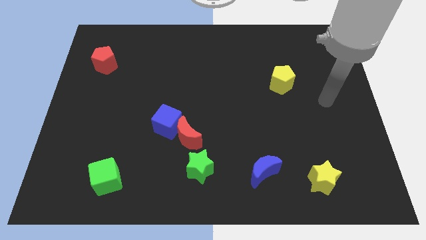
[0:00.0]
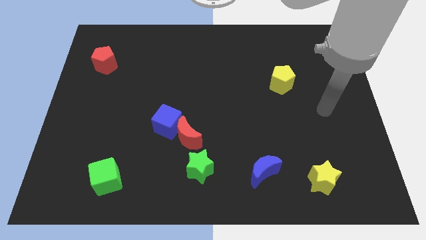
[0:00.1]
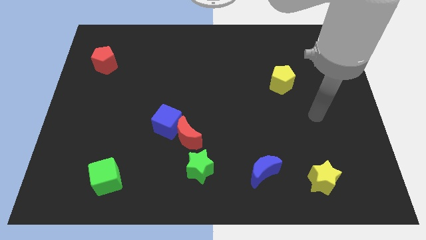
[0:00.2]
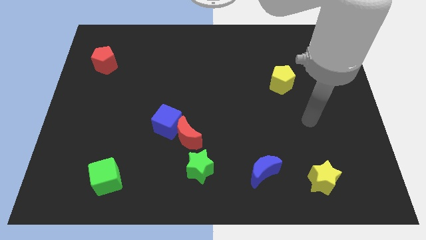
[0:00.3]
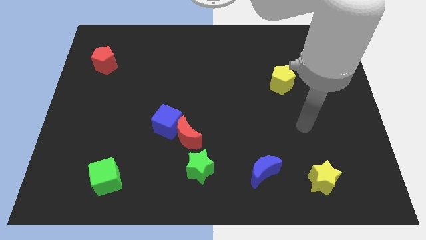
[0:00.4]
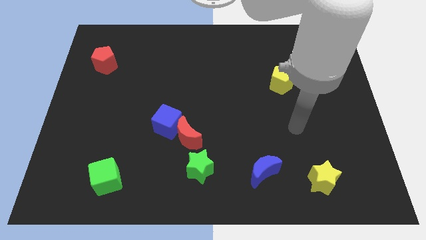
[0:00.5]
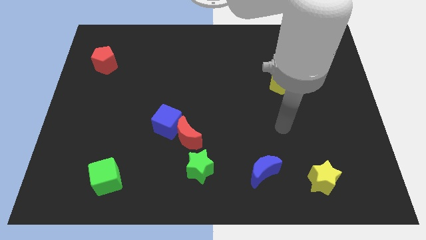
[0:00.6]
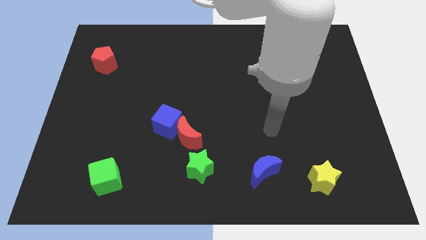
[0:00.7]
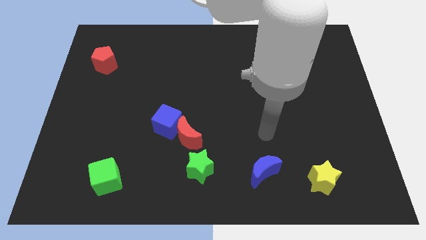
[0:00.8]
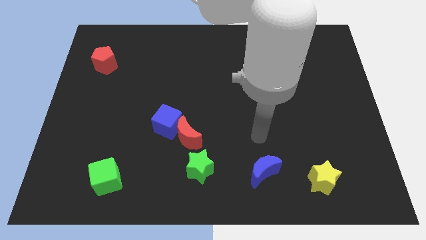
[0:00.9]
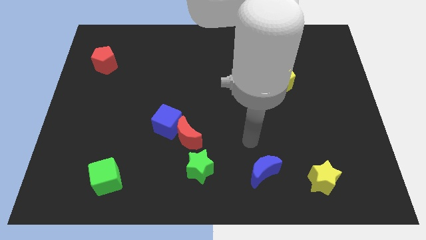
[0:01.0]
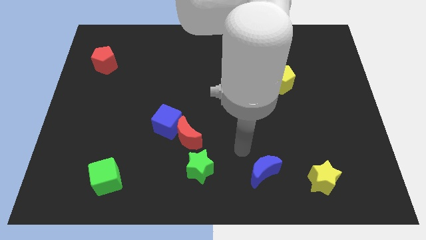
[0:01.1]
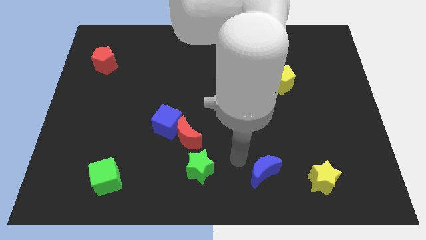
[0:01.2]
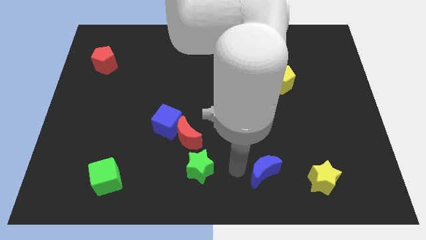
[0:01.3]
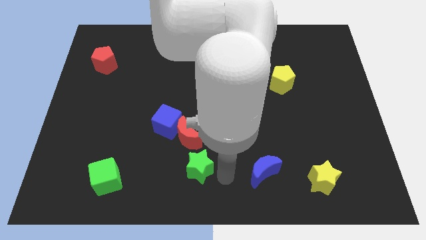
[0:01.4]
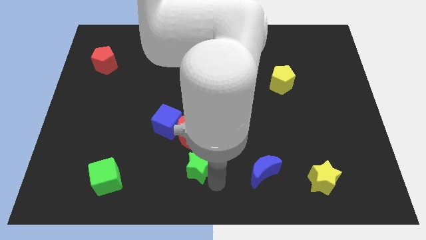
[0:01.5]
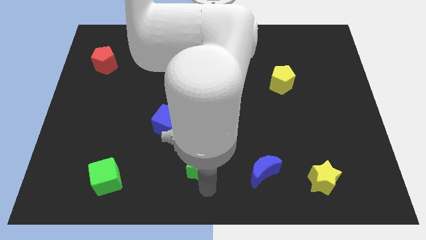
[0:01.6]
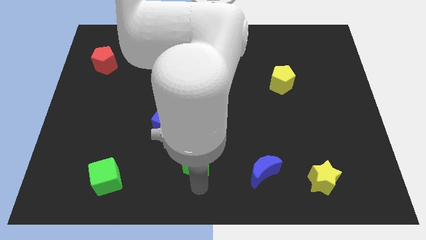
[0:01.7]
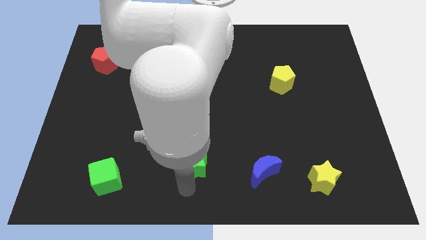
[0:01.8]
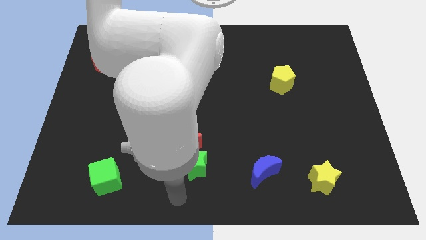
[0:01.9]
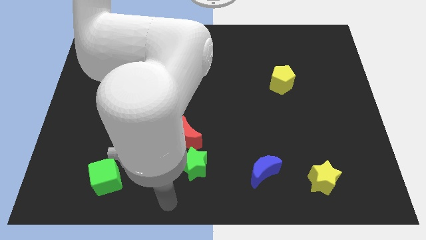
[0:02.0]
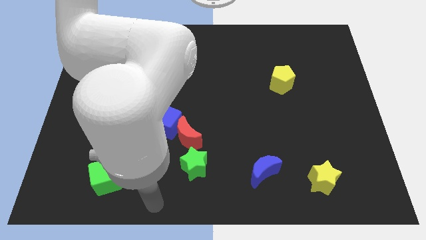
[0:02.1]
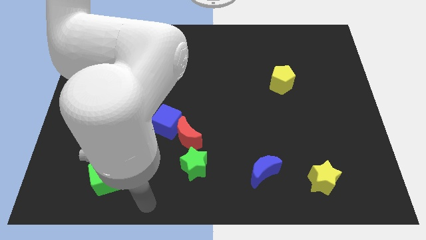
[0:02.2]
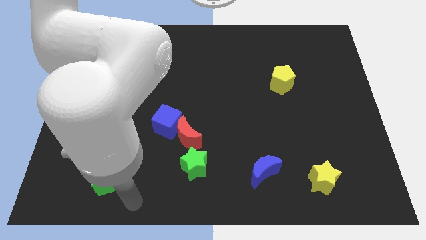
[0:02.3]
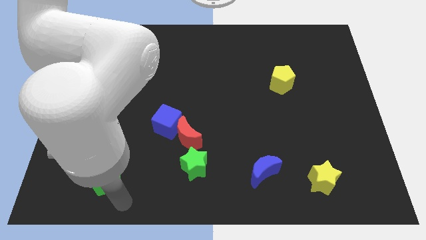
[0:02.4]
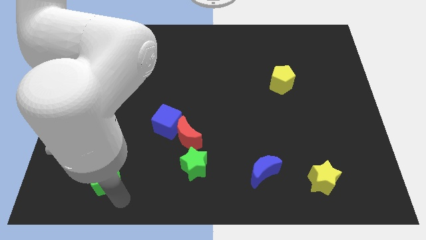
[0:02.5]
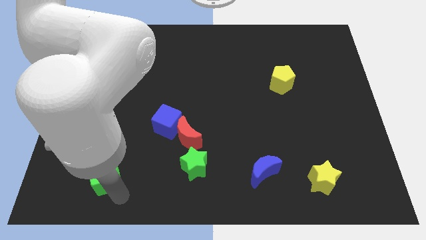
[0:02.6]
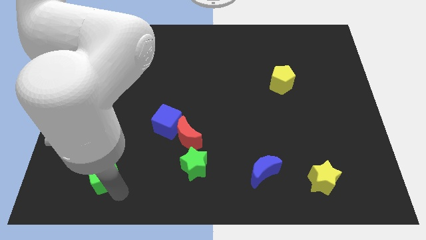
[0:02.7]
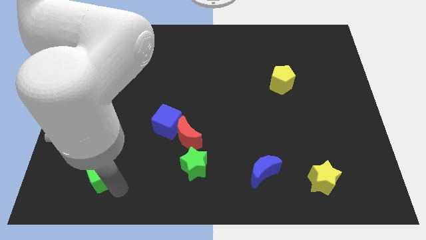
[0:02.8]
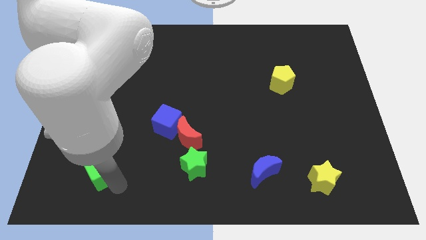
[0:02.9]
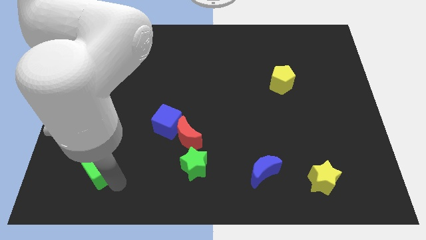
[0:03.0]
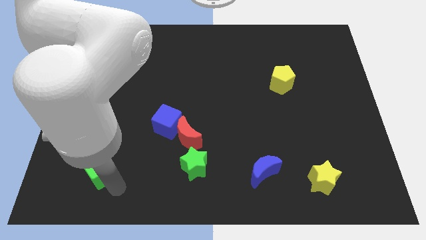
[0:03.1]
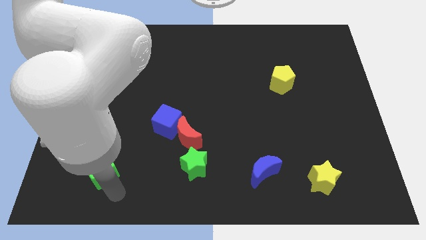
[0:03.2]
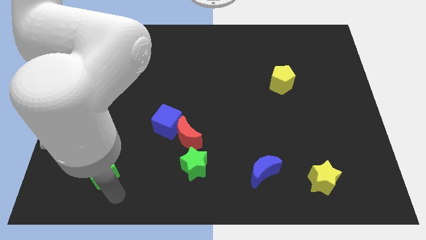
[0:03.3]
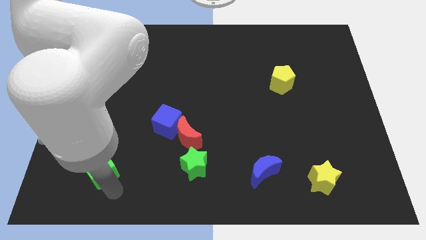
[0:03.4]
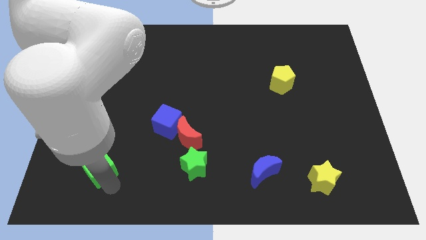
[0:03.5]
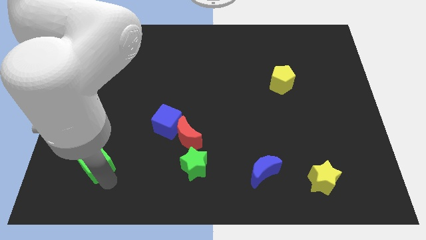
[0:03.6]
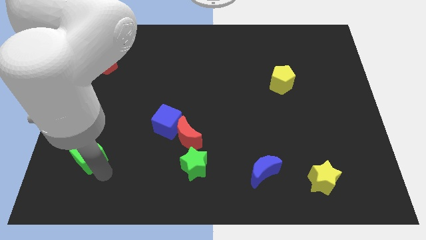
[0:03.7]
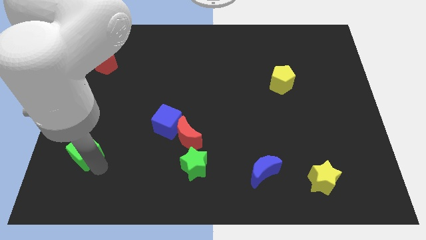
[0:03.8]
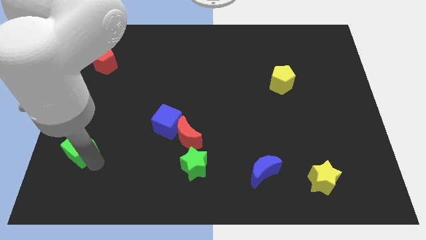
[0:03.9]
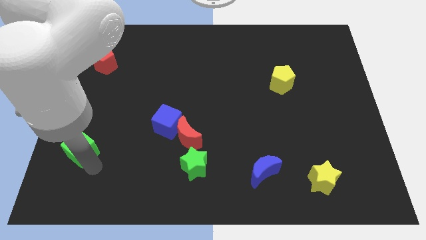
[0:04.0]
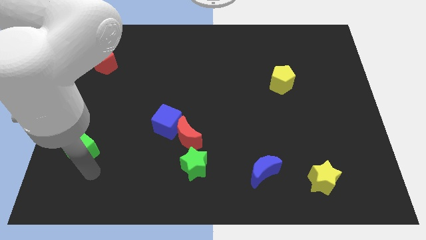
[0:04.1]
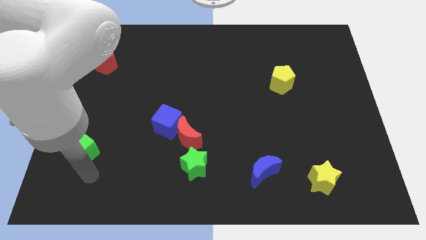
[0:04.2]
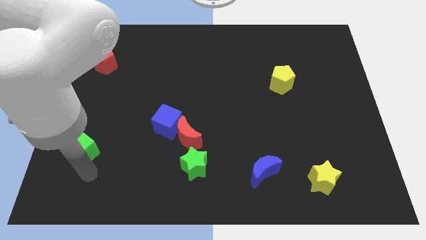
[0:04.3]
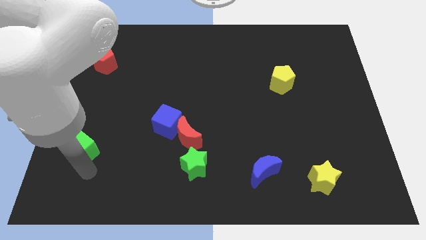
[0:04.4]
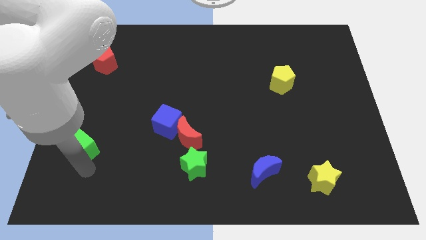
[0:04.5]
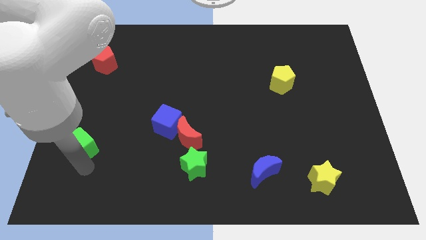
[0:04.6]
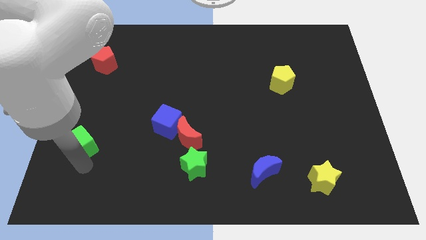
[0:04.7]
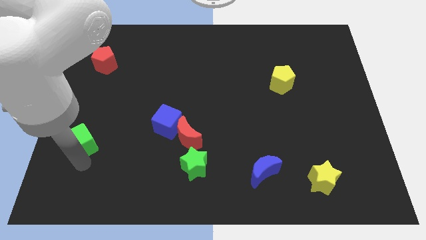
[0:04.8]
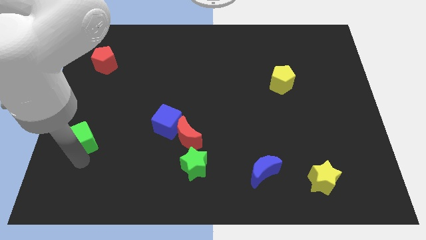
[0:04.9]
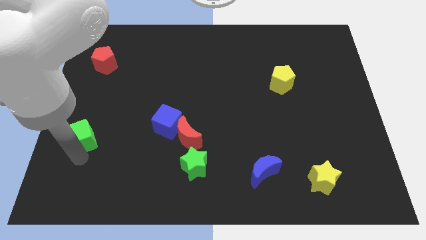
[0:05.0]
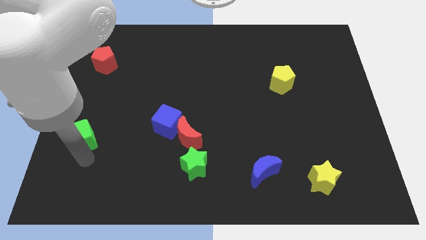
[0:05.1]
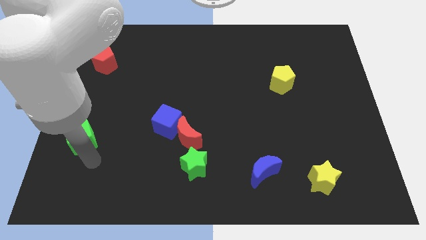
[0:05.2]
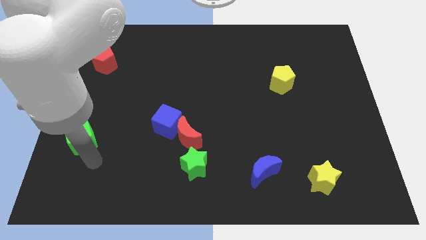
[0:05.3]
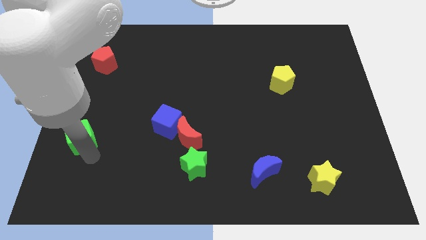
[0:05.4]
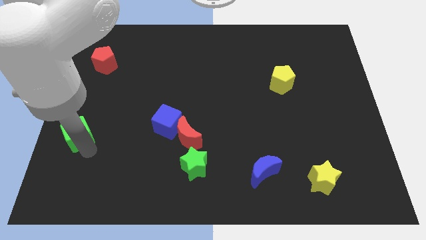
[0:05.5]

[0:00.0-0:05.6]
slide the green cube to the left side

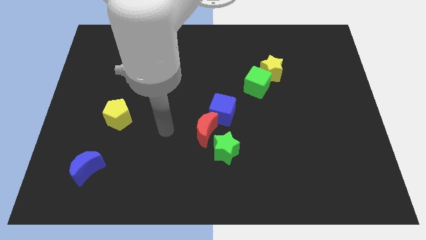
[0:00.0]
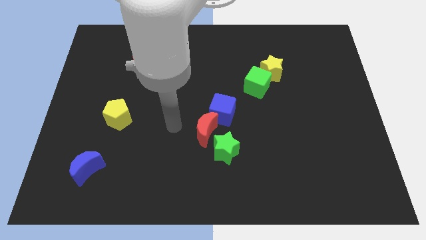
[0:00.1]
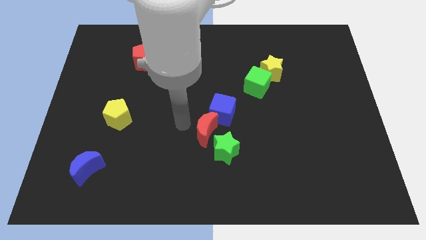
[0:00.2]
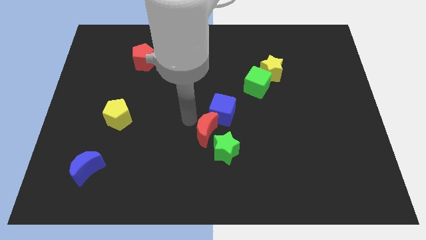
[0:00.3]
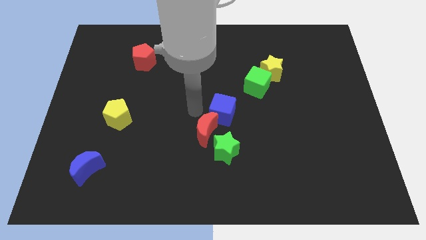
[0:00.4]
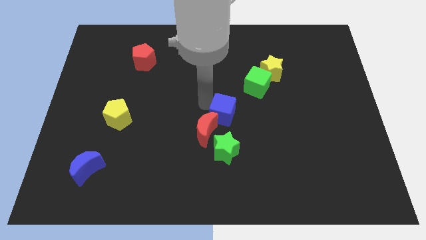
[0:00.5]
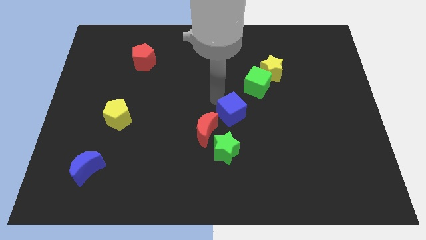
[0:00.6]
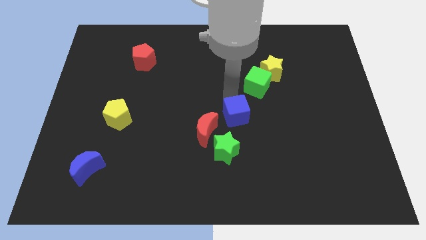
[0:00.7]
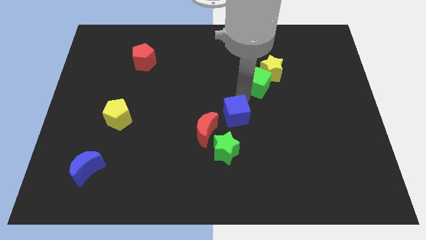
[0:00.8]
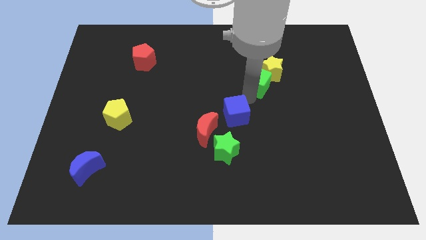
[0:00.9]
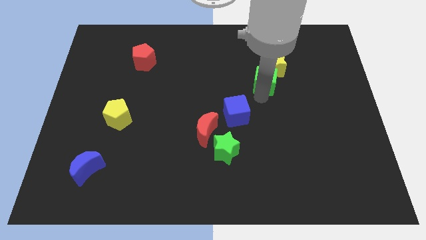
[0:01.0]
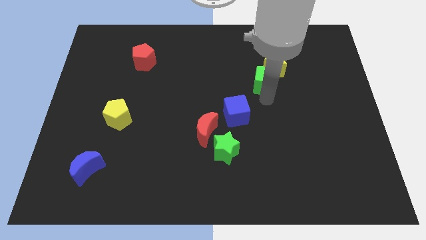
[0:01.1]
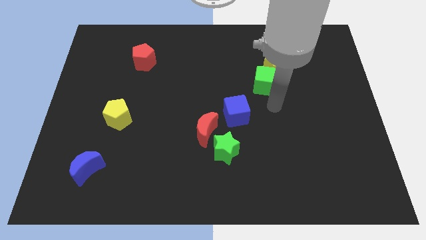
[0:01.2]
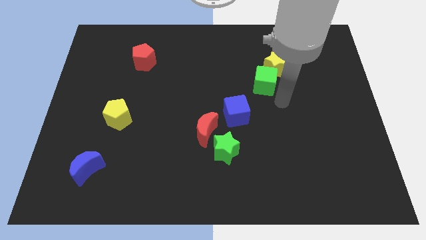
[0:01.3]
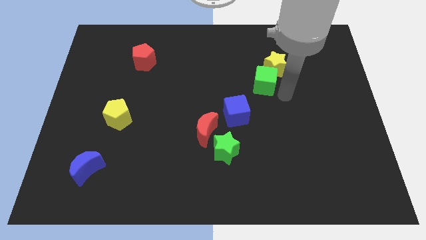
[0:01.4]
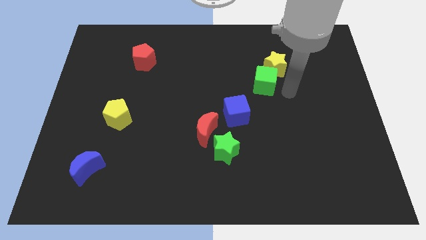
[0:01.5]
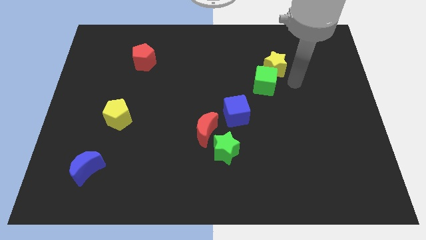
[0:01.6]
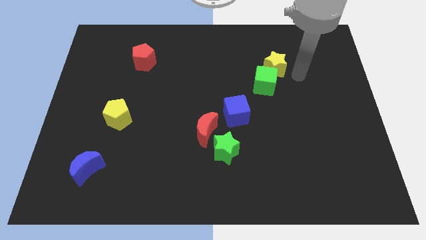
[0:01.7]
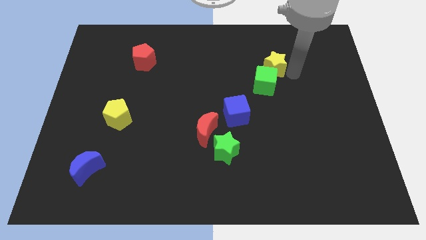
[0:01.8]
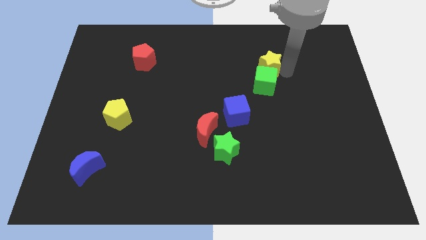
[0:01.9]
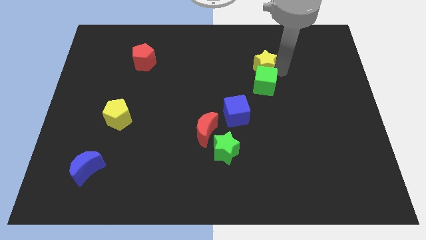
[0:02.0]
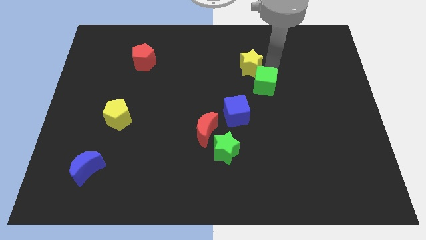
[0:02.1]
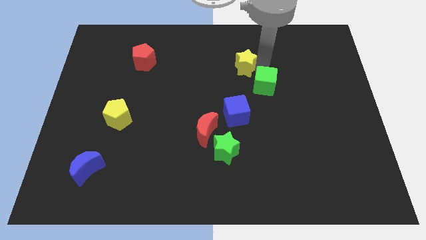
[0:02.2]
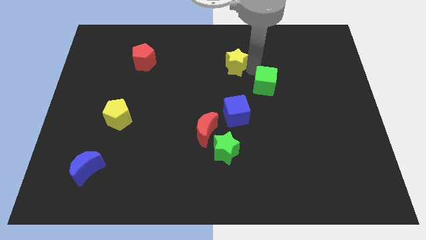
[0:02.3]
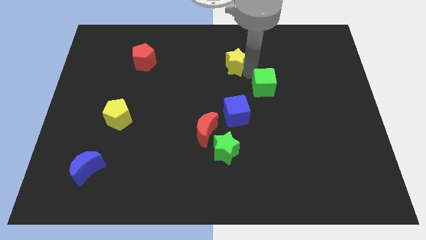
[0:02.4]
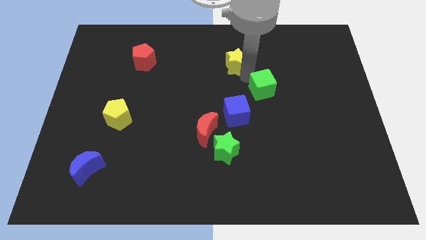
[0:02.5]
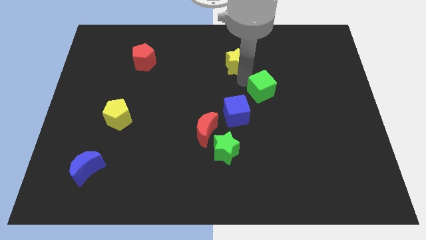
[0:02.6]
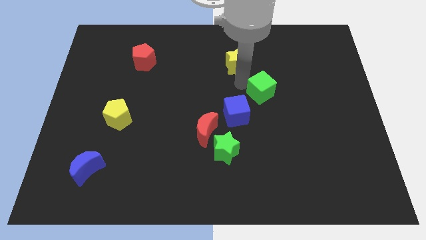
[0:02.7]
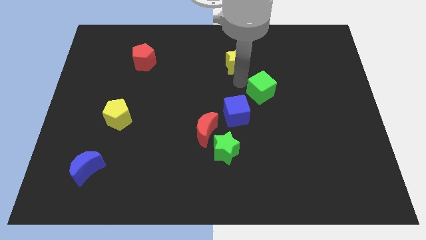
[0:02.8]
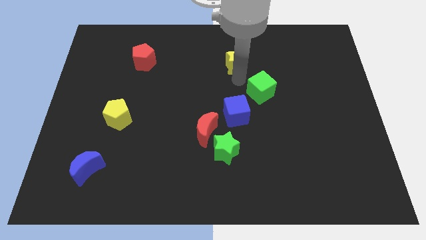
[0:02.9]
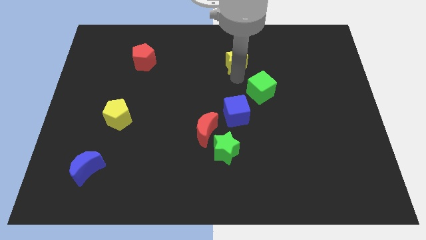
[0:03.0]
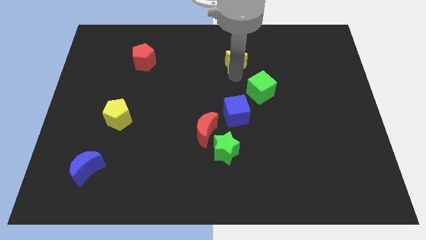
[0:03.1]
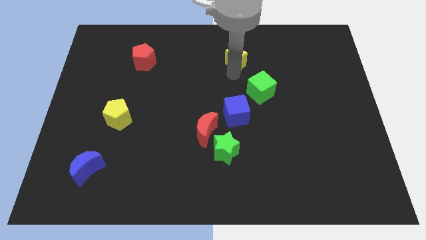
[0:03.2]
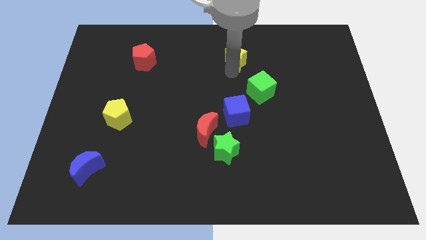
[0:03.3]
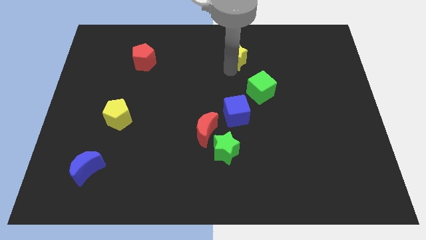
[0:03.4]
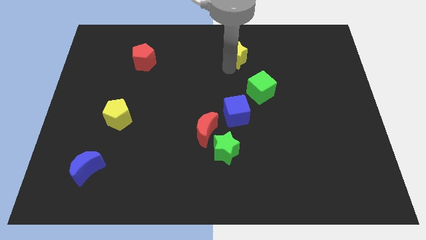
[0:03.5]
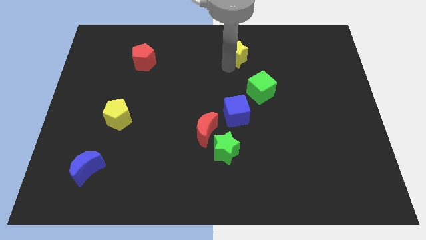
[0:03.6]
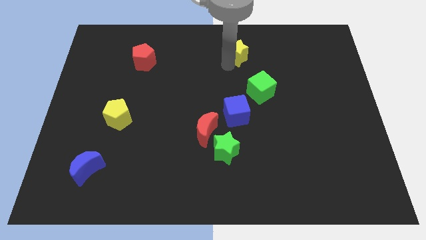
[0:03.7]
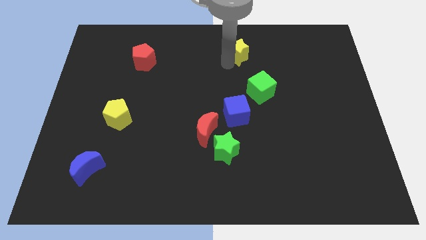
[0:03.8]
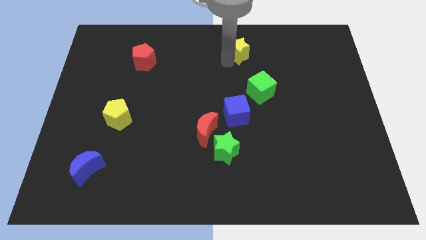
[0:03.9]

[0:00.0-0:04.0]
slide the yellow star to the top
